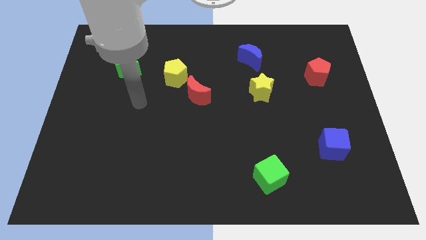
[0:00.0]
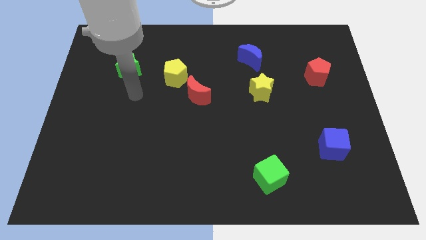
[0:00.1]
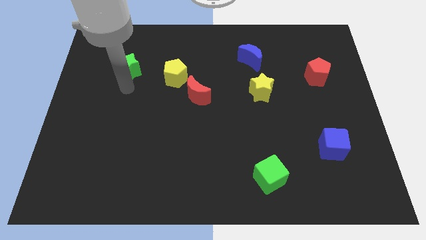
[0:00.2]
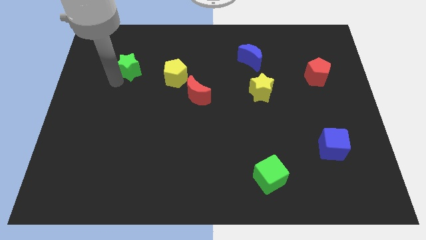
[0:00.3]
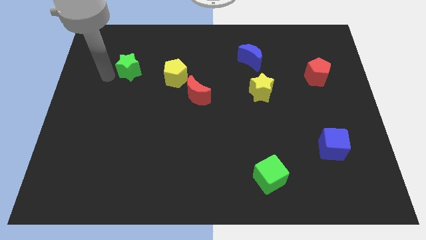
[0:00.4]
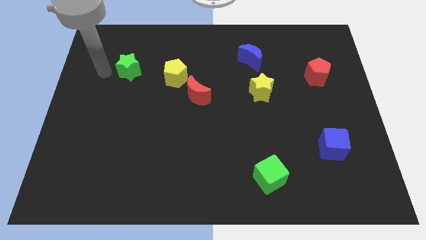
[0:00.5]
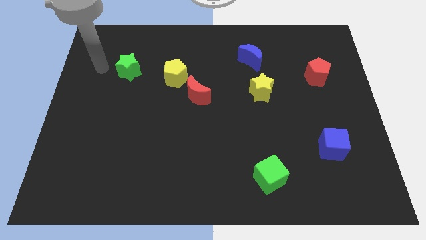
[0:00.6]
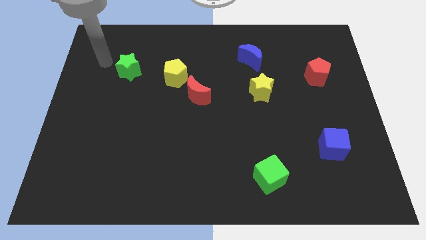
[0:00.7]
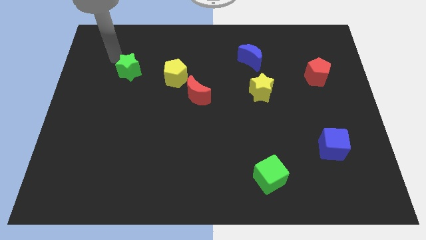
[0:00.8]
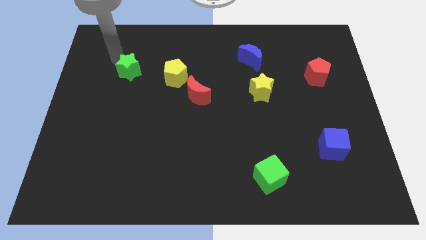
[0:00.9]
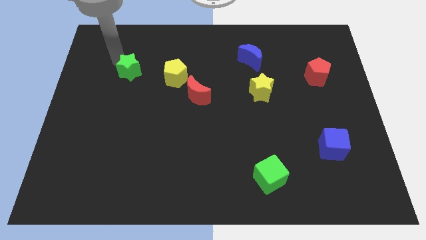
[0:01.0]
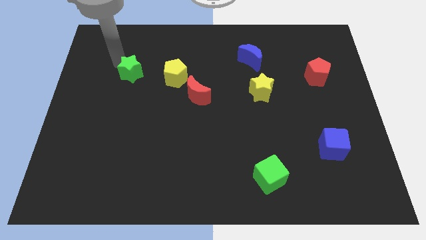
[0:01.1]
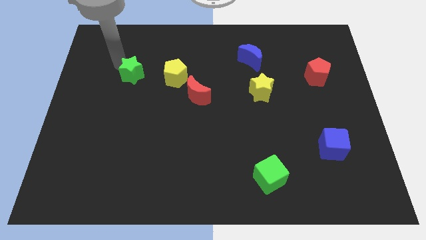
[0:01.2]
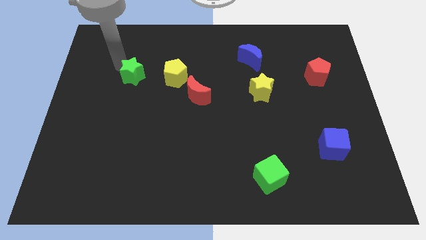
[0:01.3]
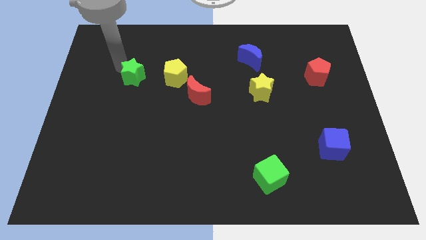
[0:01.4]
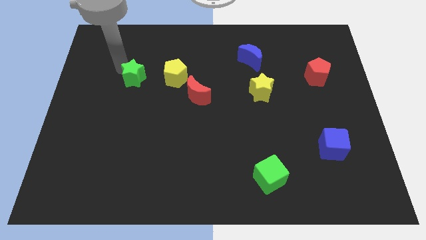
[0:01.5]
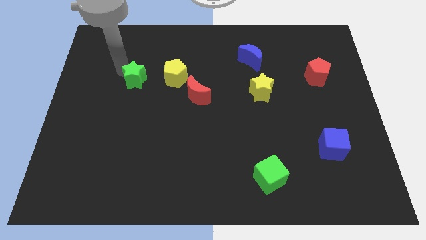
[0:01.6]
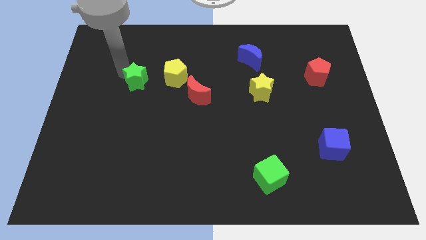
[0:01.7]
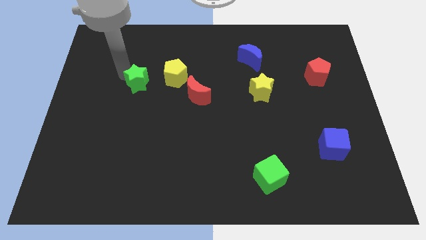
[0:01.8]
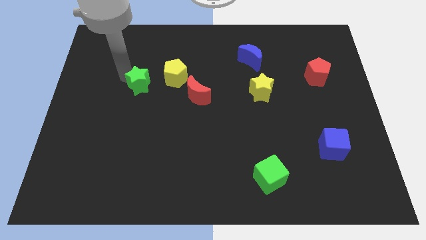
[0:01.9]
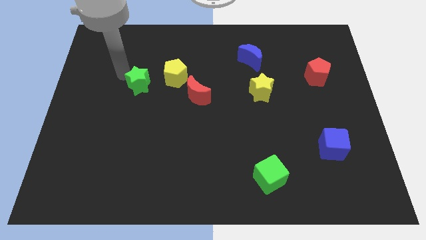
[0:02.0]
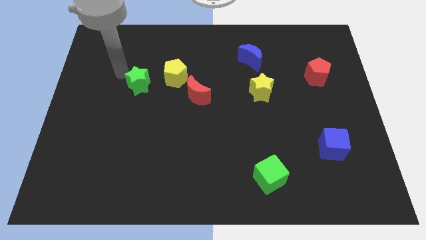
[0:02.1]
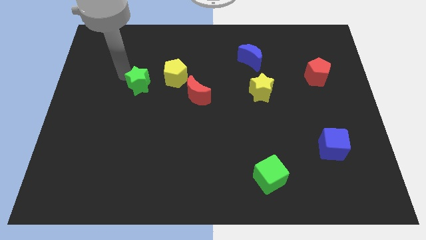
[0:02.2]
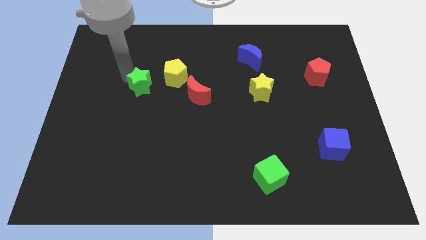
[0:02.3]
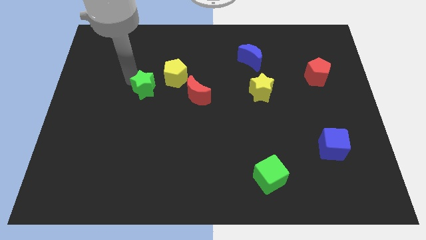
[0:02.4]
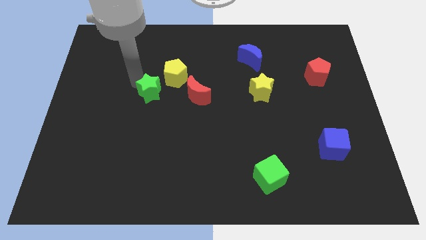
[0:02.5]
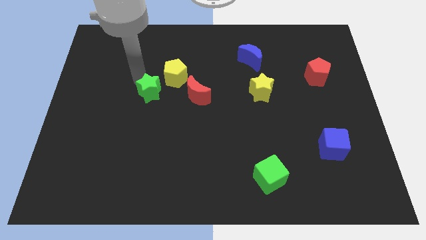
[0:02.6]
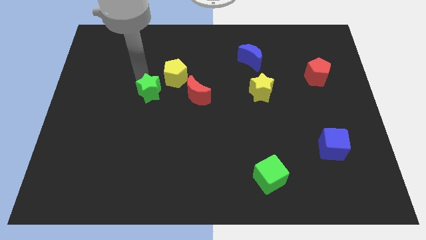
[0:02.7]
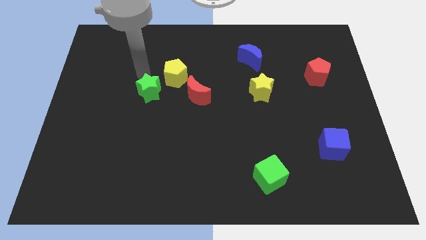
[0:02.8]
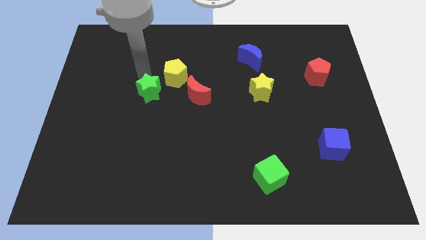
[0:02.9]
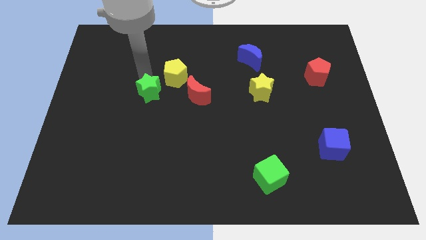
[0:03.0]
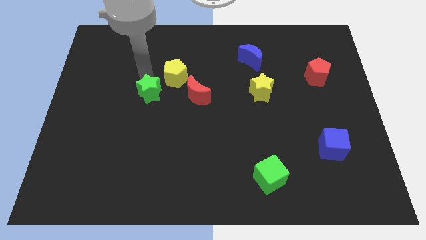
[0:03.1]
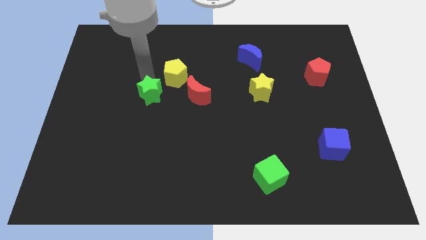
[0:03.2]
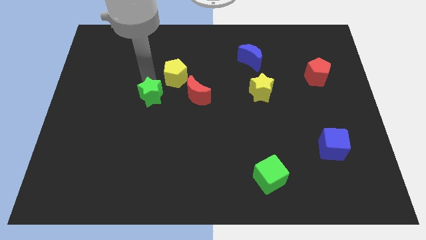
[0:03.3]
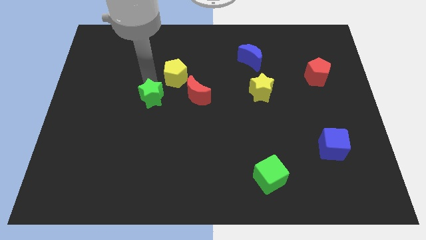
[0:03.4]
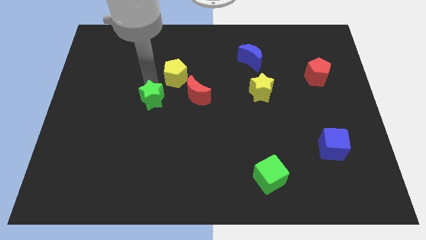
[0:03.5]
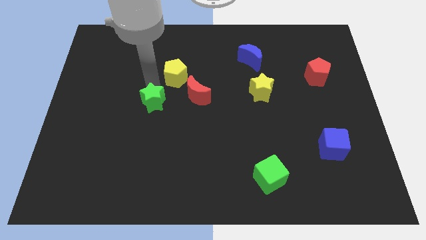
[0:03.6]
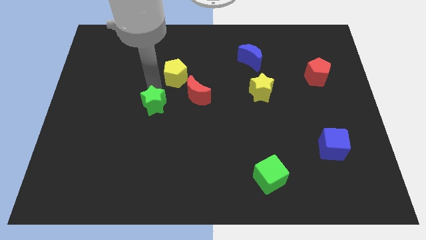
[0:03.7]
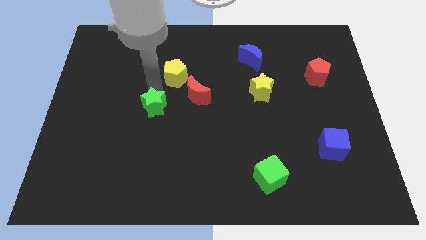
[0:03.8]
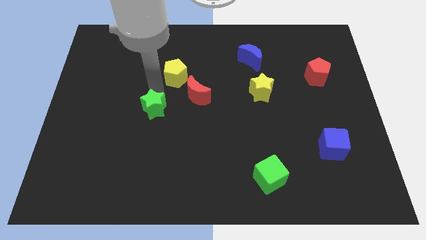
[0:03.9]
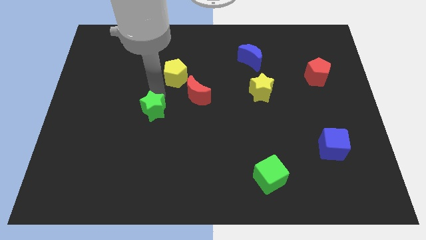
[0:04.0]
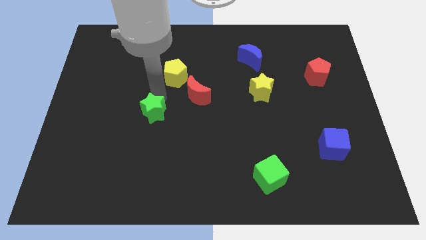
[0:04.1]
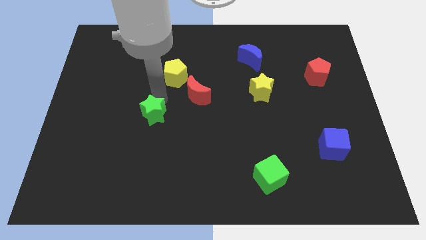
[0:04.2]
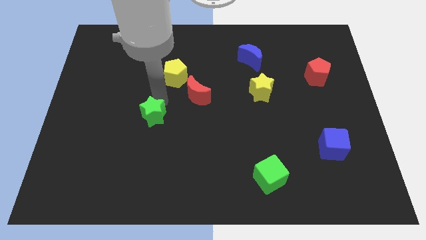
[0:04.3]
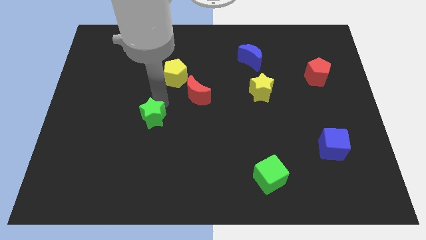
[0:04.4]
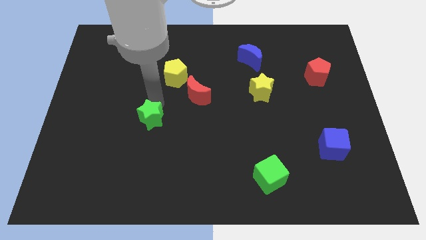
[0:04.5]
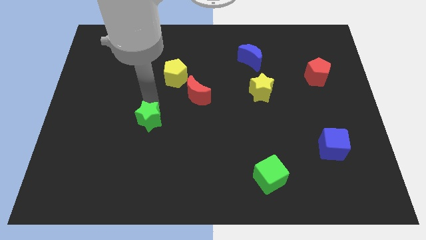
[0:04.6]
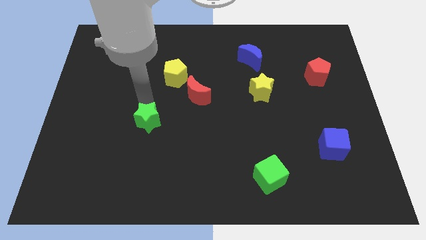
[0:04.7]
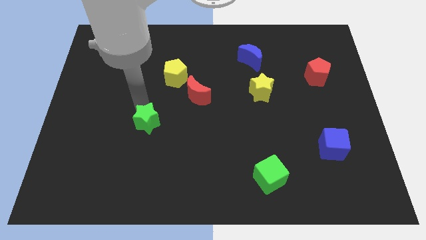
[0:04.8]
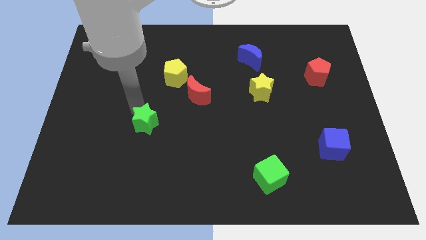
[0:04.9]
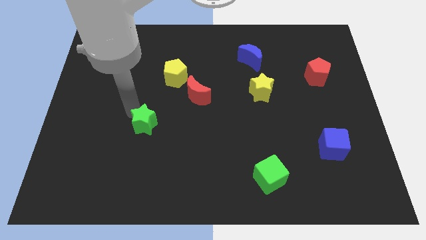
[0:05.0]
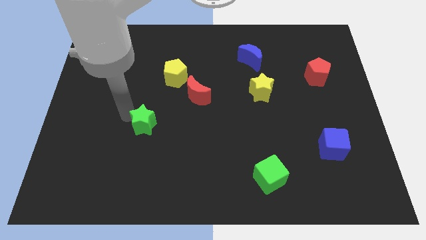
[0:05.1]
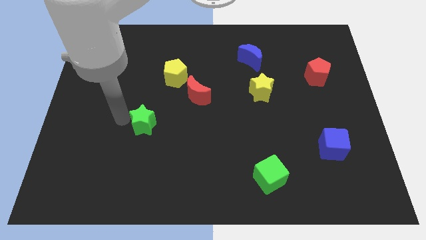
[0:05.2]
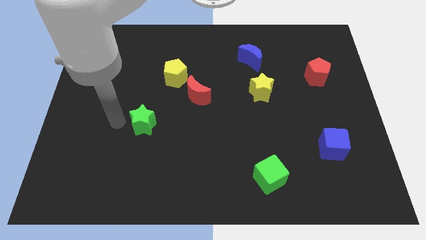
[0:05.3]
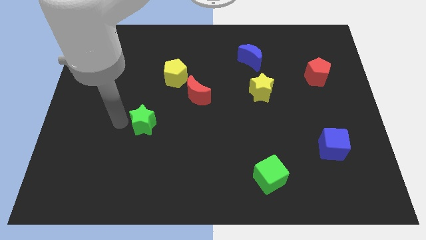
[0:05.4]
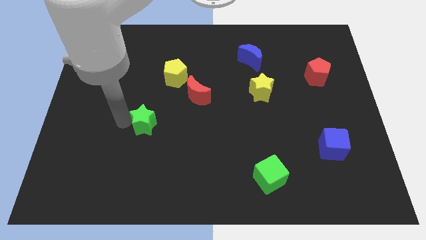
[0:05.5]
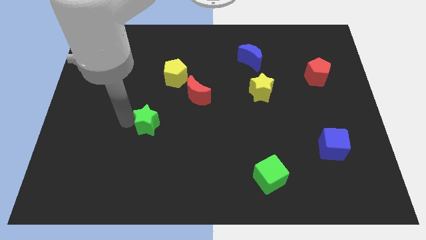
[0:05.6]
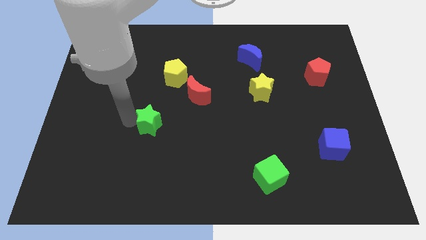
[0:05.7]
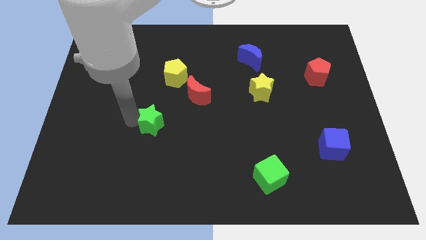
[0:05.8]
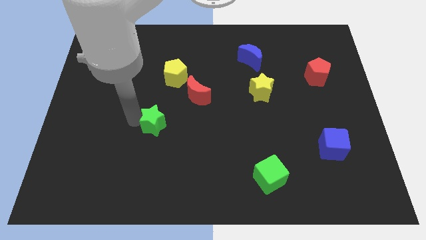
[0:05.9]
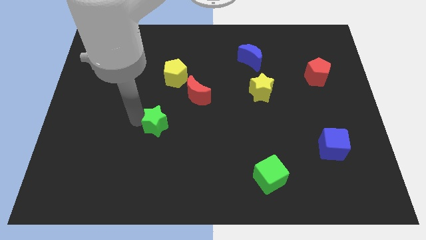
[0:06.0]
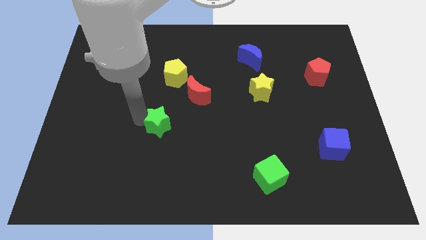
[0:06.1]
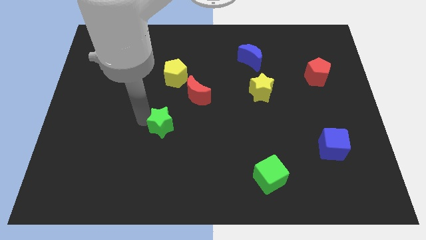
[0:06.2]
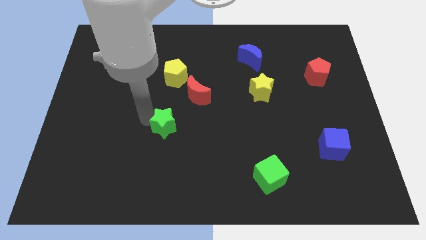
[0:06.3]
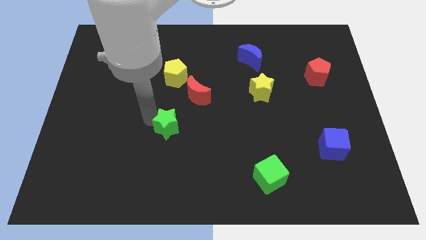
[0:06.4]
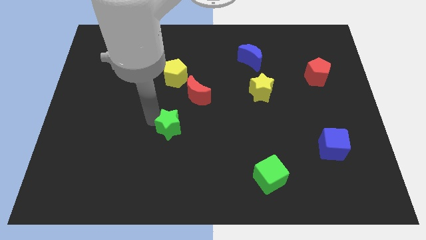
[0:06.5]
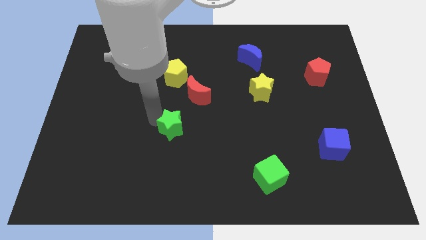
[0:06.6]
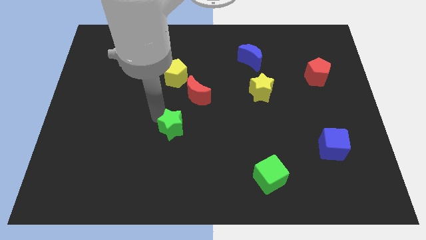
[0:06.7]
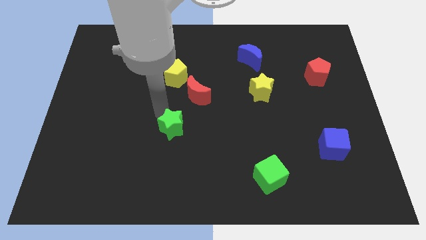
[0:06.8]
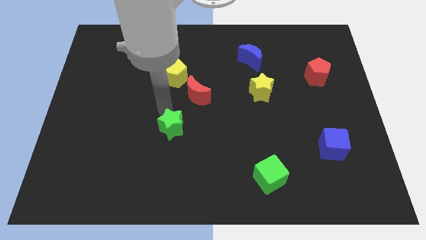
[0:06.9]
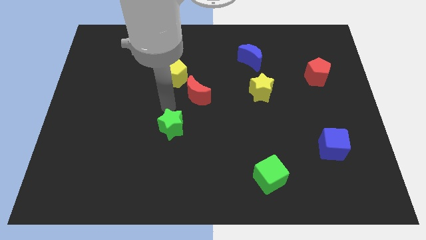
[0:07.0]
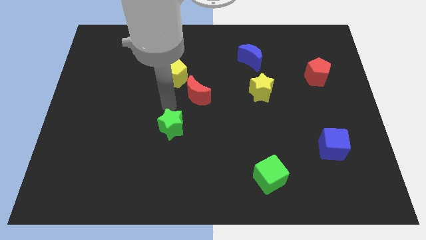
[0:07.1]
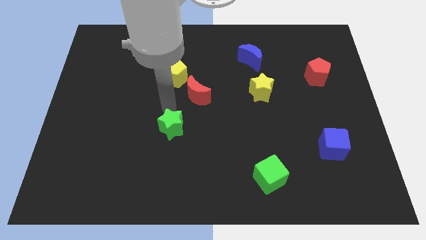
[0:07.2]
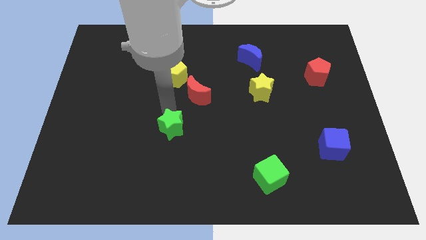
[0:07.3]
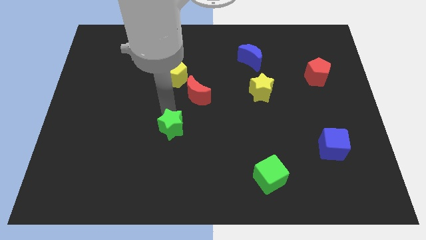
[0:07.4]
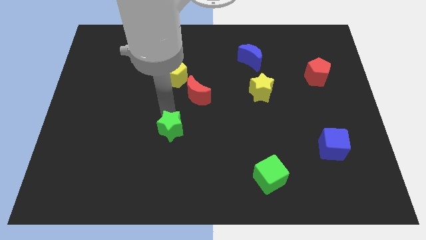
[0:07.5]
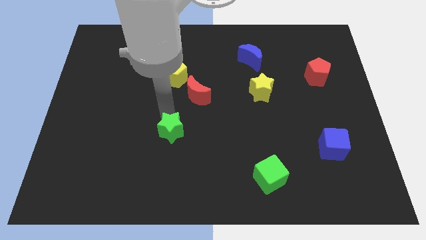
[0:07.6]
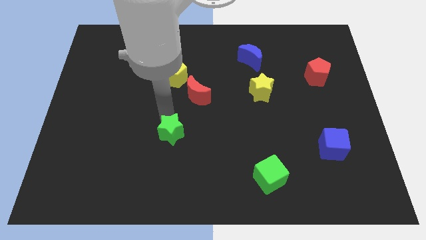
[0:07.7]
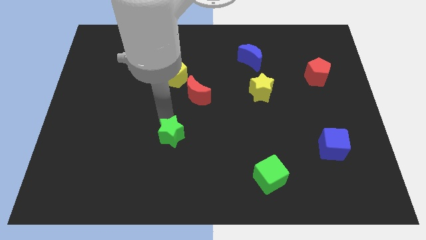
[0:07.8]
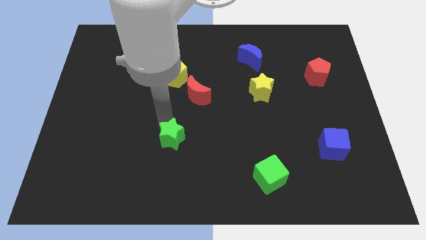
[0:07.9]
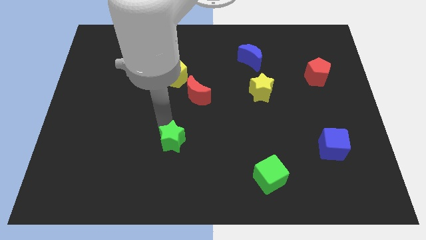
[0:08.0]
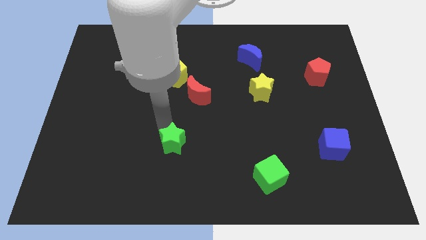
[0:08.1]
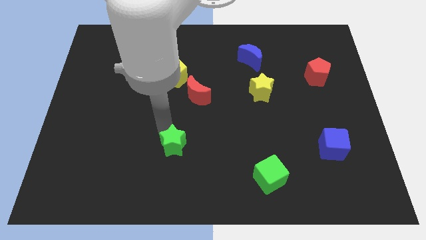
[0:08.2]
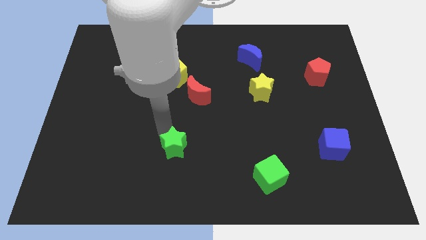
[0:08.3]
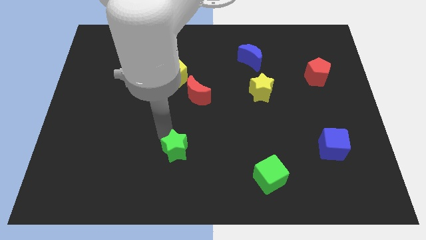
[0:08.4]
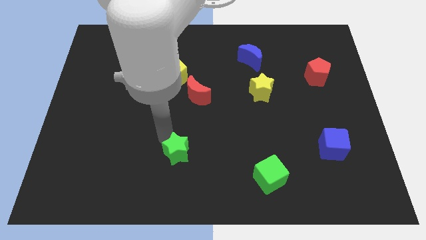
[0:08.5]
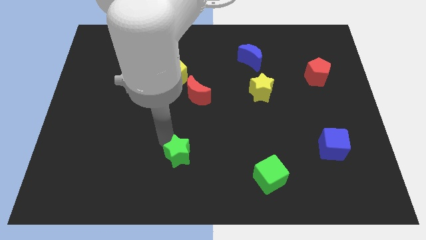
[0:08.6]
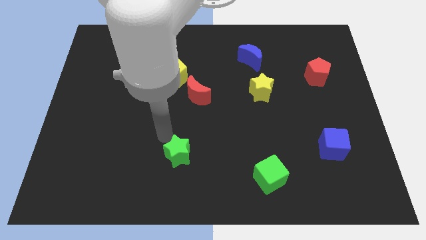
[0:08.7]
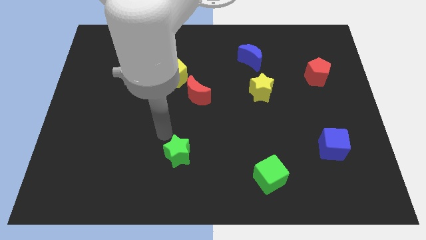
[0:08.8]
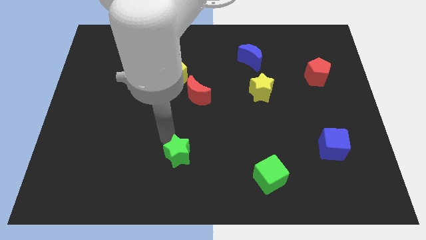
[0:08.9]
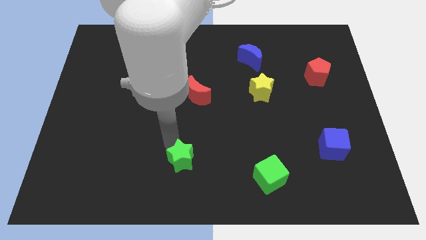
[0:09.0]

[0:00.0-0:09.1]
push the green star to the bottom side
